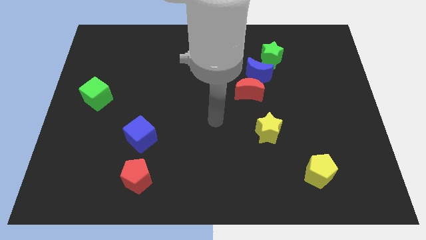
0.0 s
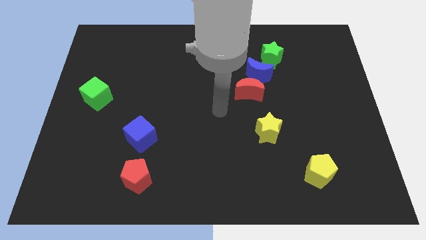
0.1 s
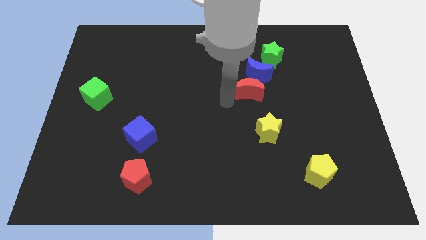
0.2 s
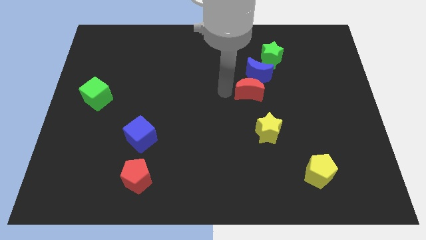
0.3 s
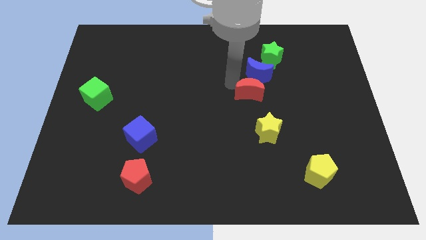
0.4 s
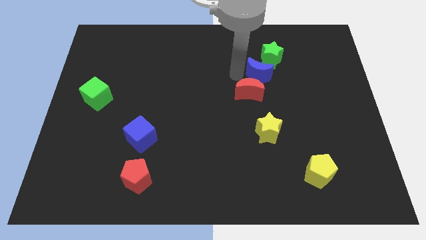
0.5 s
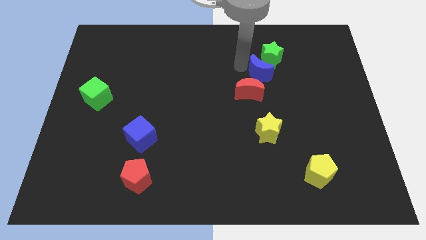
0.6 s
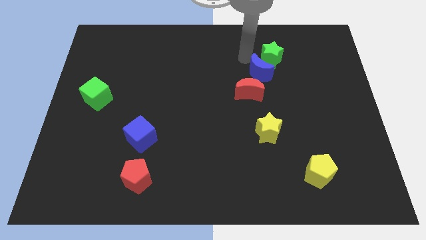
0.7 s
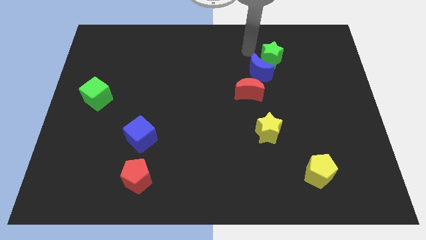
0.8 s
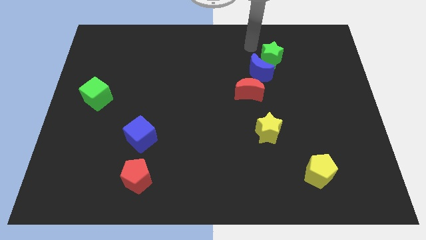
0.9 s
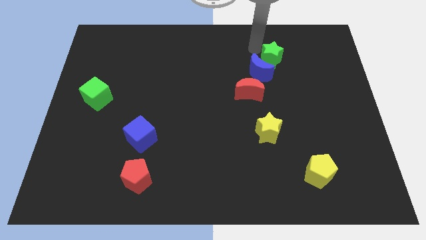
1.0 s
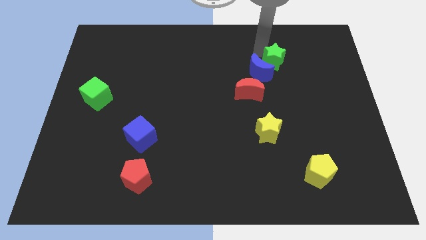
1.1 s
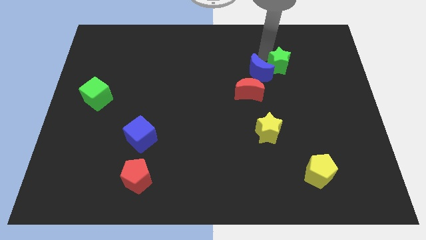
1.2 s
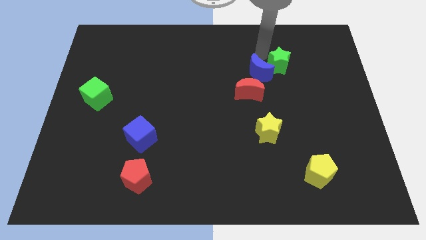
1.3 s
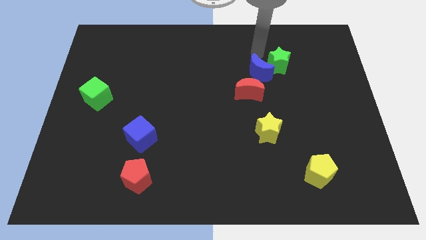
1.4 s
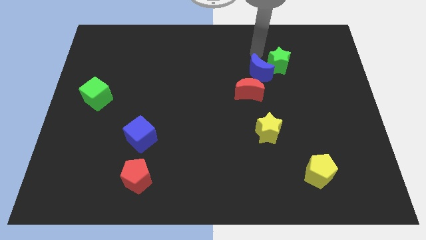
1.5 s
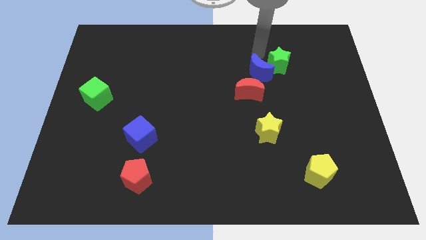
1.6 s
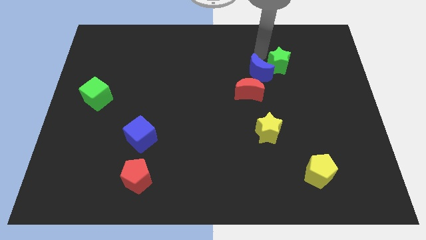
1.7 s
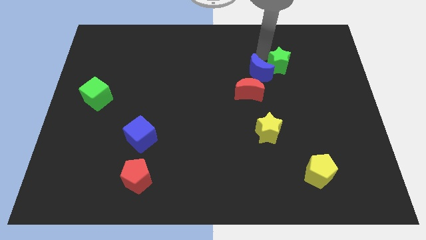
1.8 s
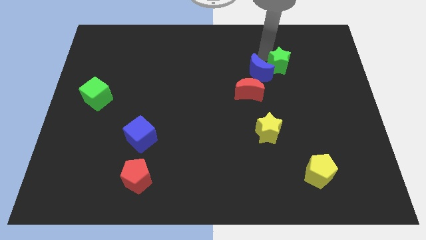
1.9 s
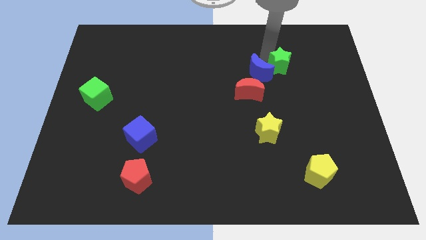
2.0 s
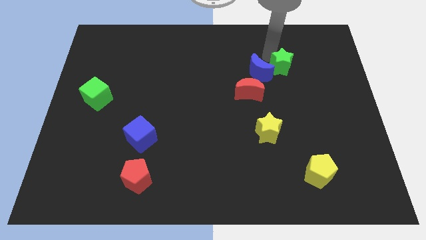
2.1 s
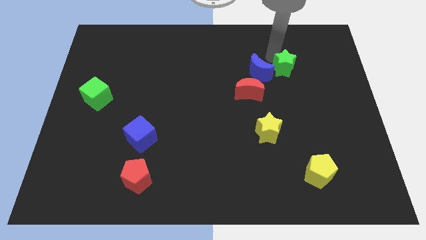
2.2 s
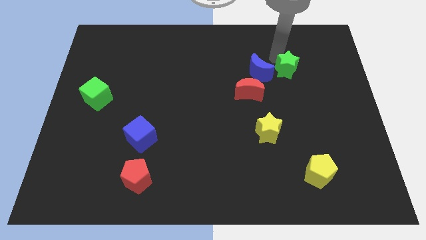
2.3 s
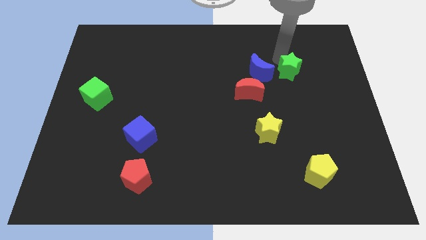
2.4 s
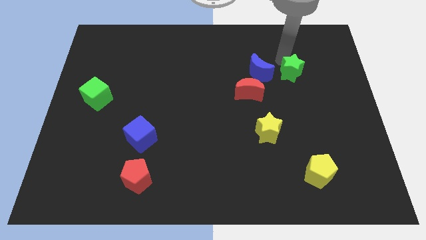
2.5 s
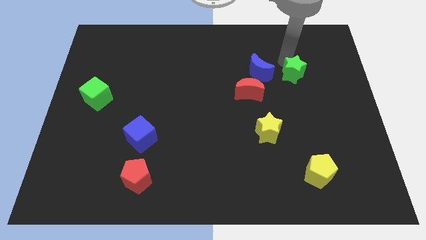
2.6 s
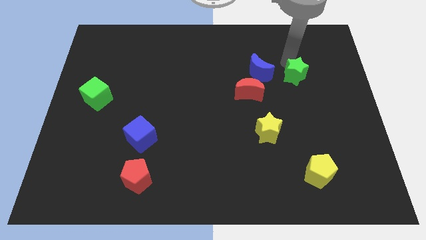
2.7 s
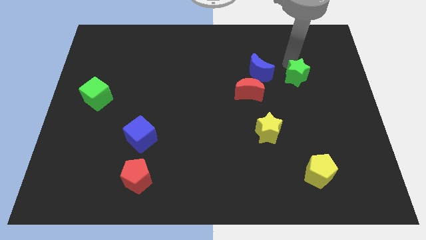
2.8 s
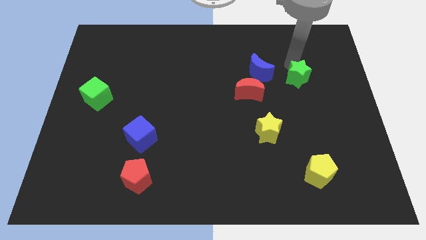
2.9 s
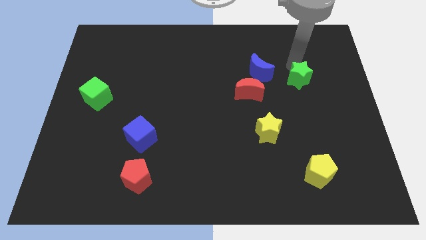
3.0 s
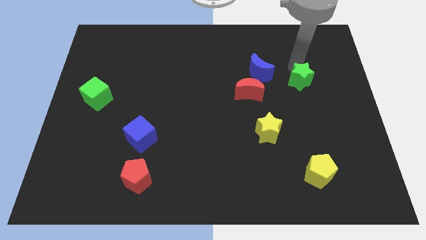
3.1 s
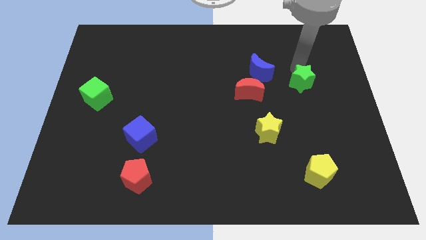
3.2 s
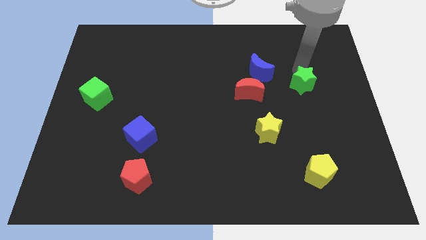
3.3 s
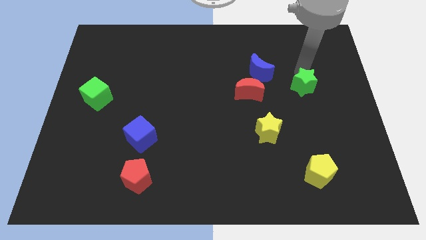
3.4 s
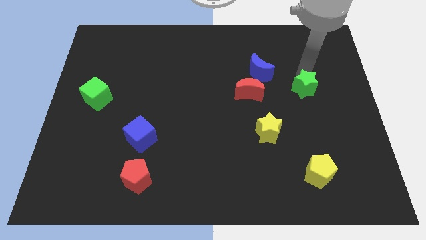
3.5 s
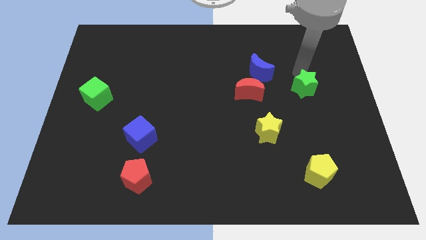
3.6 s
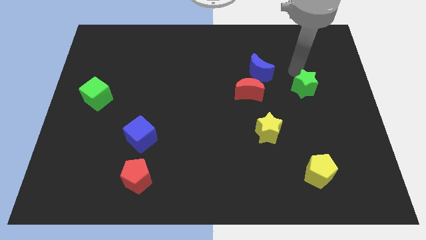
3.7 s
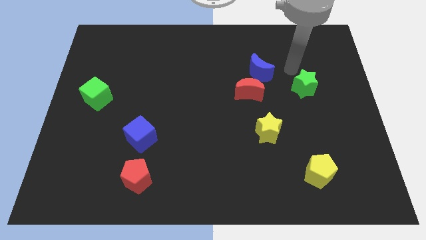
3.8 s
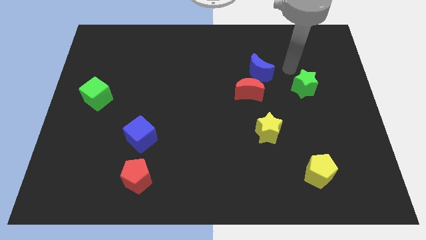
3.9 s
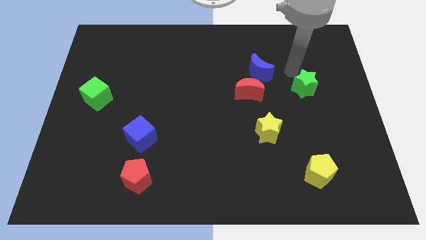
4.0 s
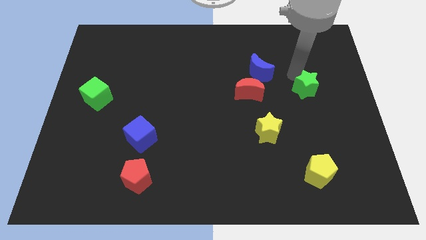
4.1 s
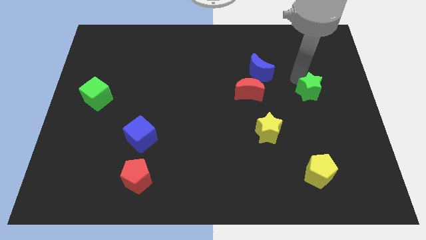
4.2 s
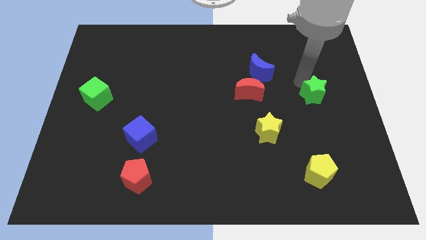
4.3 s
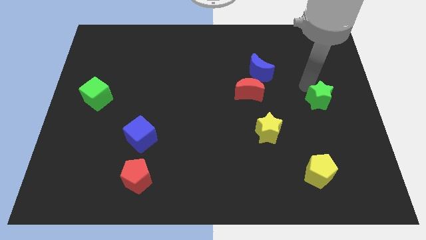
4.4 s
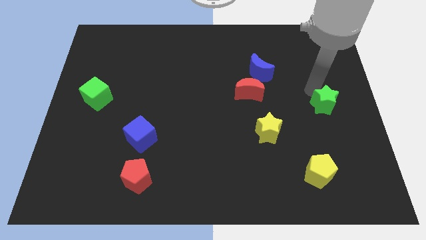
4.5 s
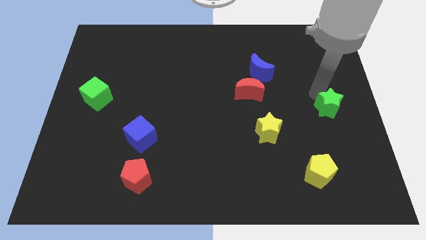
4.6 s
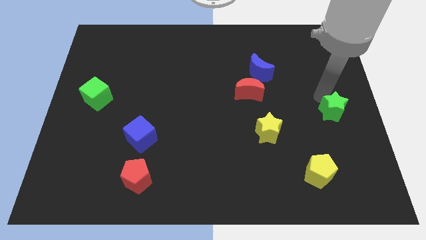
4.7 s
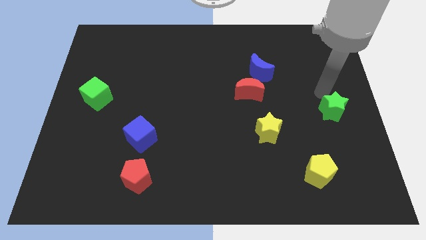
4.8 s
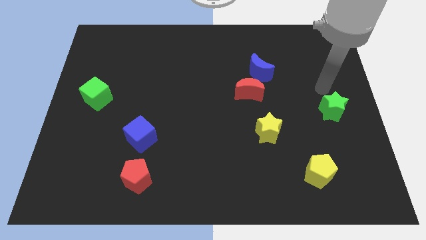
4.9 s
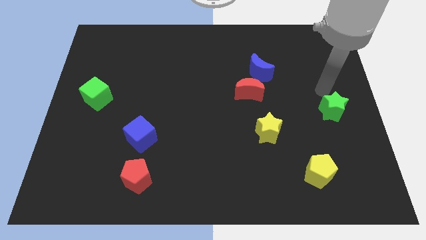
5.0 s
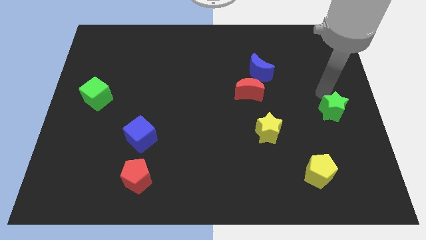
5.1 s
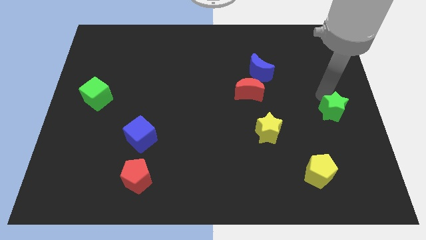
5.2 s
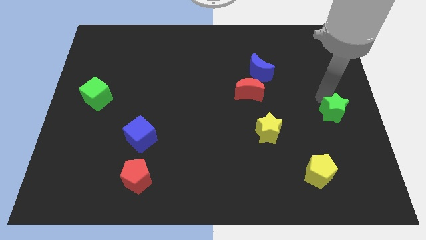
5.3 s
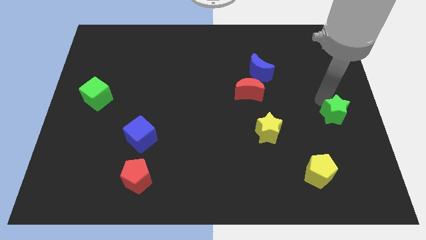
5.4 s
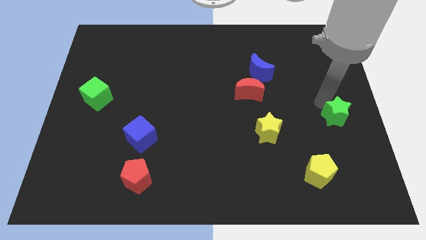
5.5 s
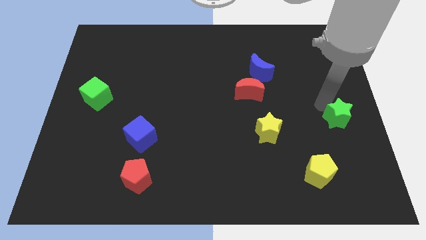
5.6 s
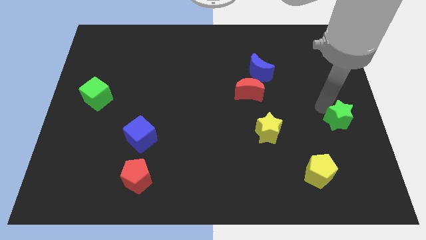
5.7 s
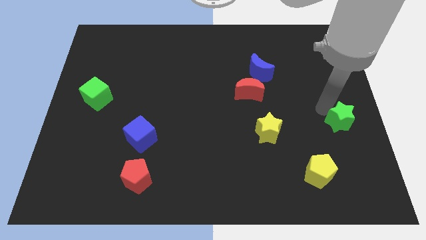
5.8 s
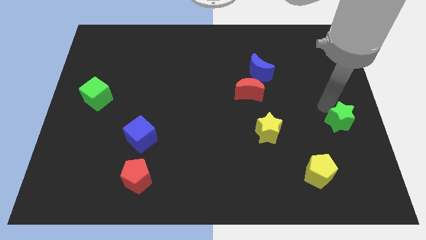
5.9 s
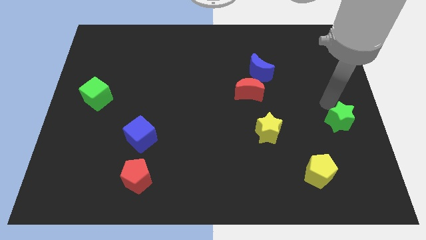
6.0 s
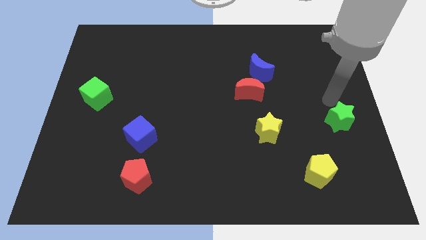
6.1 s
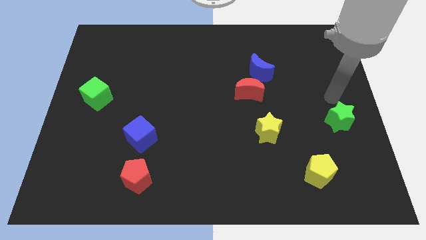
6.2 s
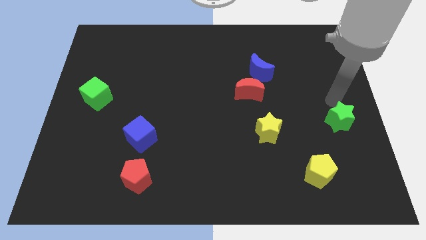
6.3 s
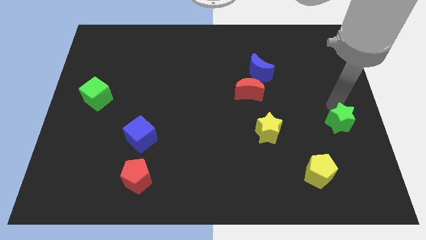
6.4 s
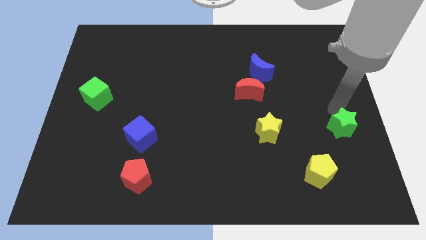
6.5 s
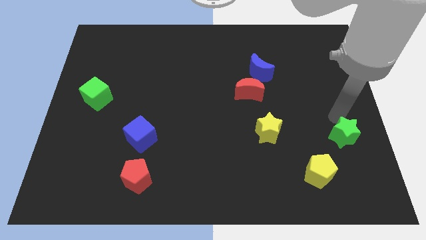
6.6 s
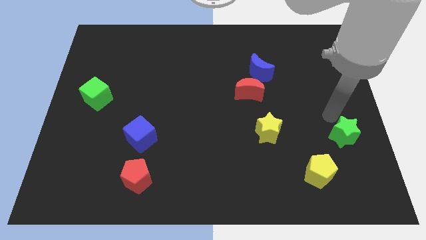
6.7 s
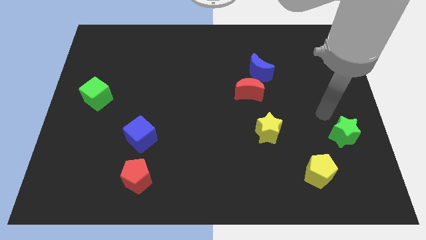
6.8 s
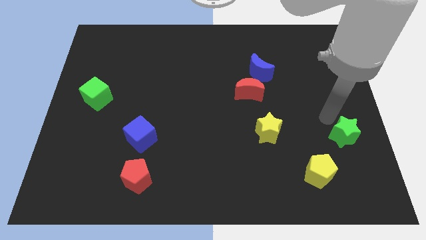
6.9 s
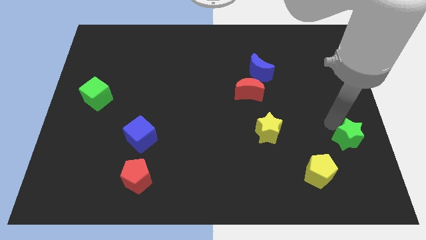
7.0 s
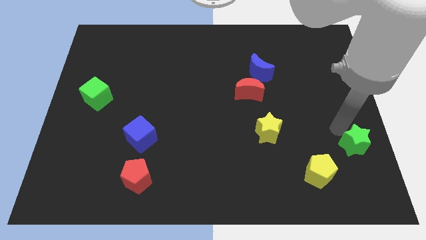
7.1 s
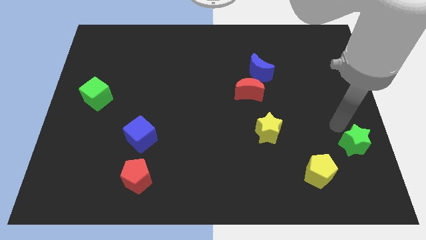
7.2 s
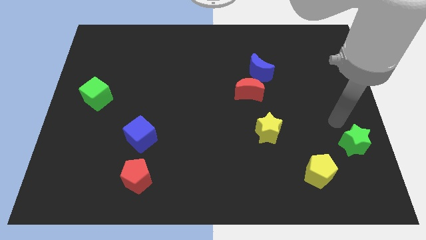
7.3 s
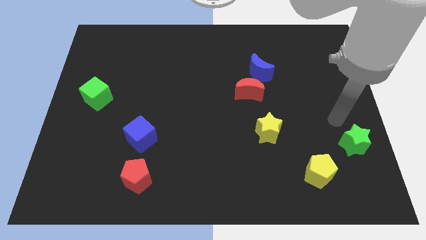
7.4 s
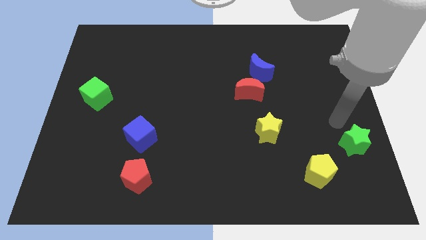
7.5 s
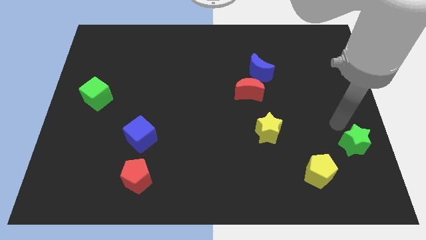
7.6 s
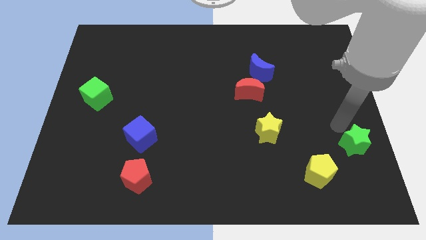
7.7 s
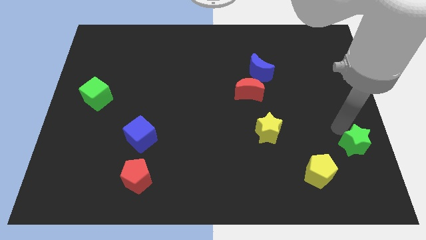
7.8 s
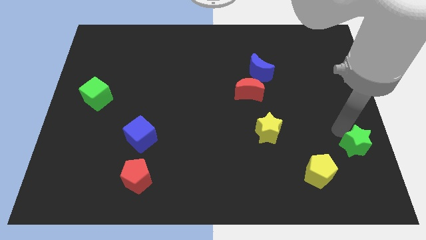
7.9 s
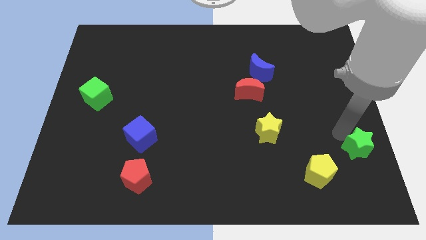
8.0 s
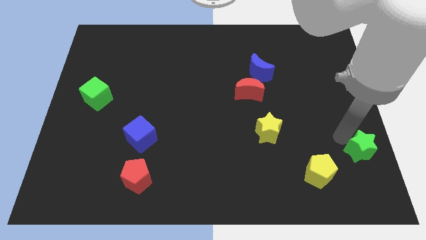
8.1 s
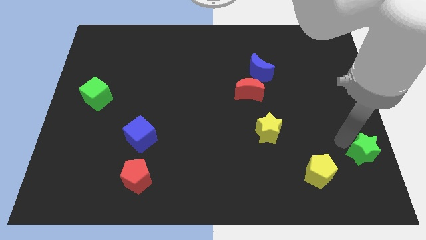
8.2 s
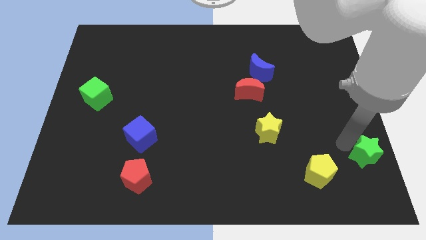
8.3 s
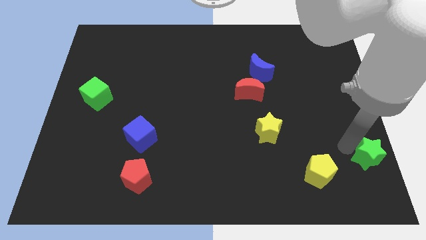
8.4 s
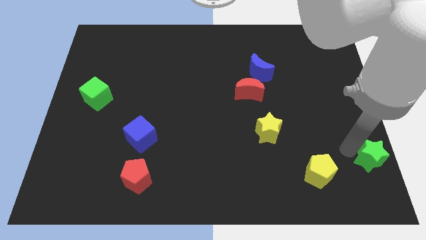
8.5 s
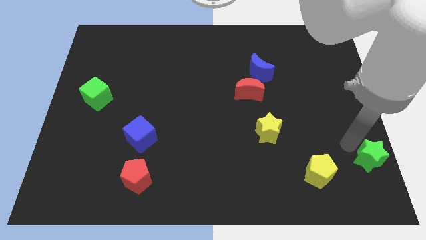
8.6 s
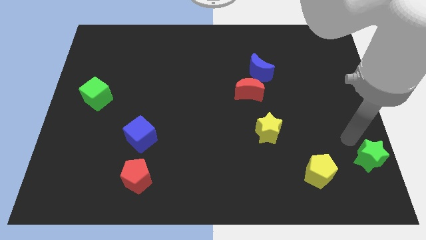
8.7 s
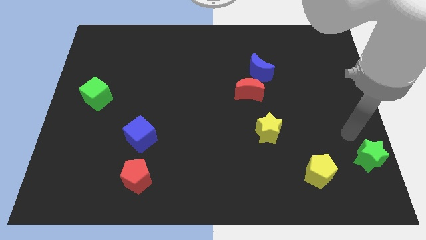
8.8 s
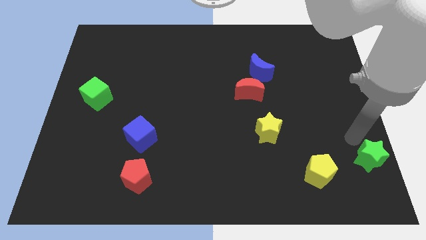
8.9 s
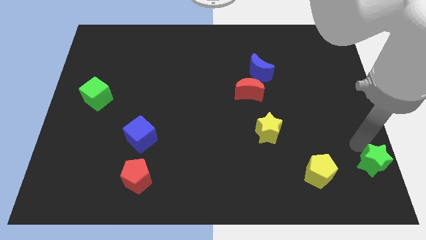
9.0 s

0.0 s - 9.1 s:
put the green star to the lower right corner
